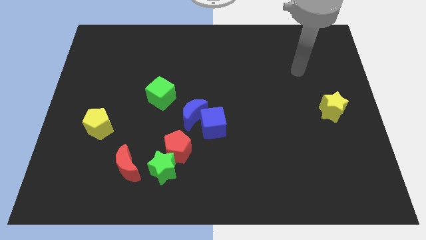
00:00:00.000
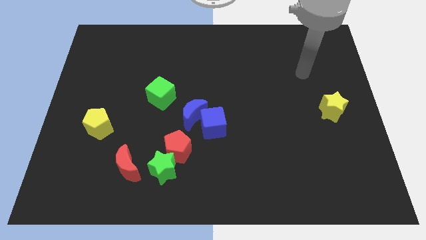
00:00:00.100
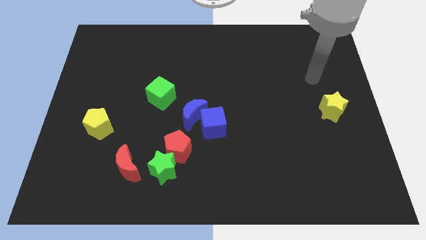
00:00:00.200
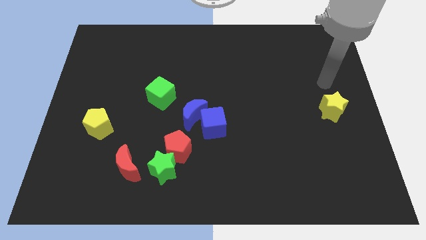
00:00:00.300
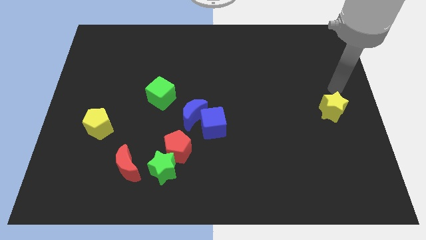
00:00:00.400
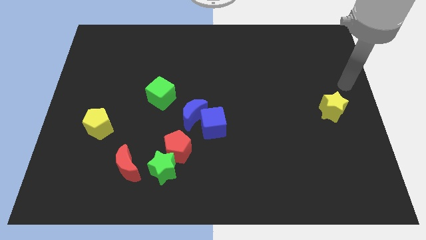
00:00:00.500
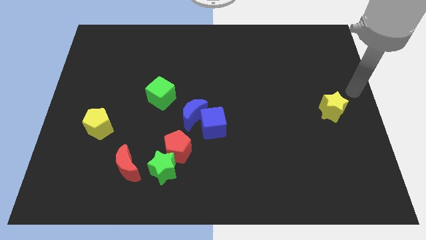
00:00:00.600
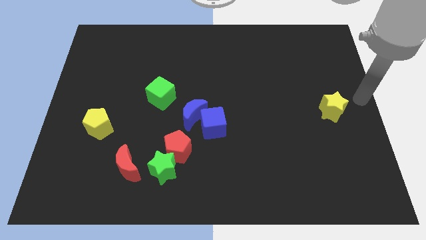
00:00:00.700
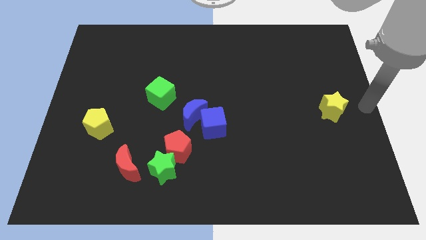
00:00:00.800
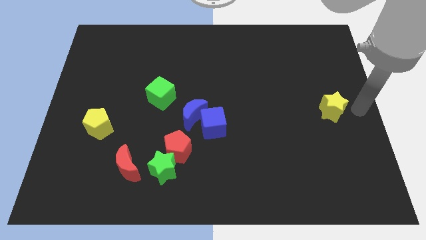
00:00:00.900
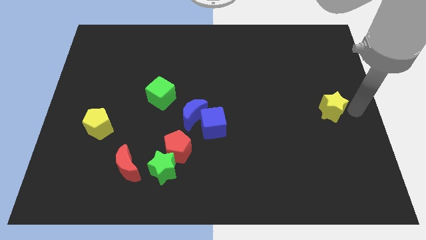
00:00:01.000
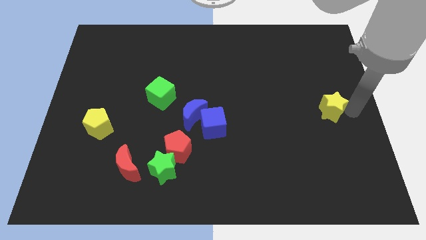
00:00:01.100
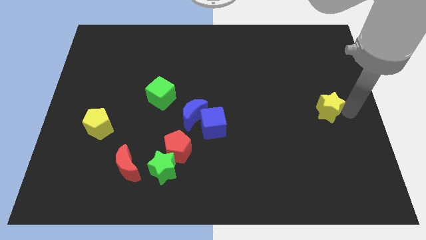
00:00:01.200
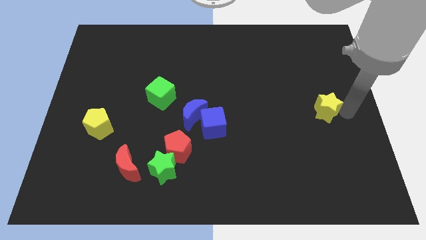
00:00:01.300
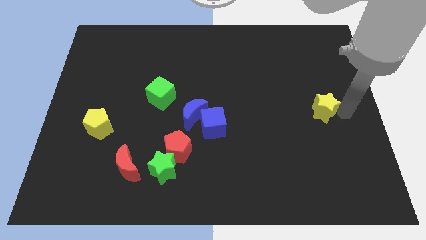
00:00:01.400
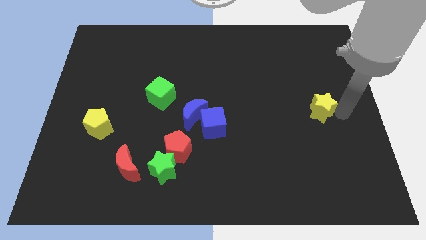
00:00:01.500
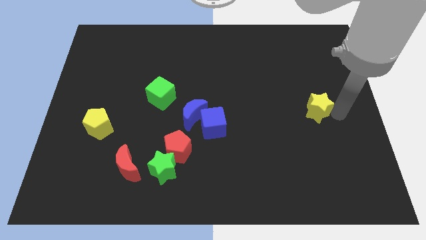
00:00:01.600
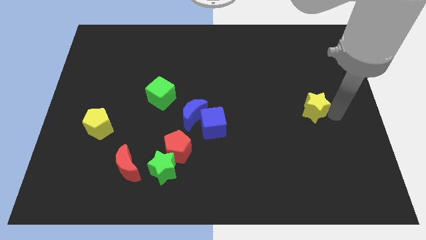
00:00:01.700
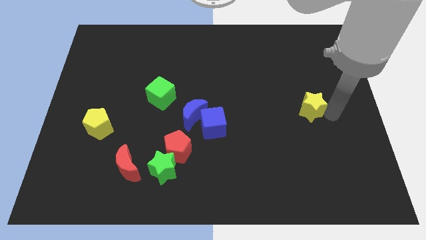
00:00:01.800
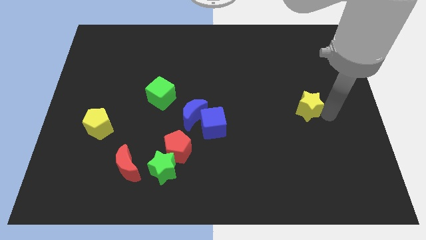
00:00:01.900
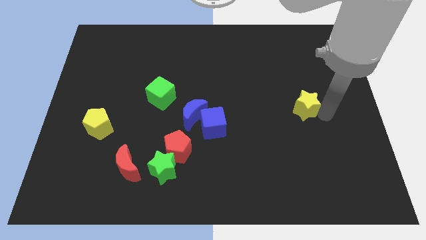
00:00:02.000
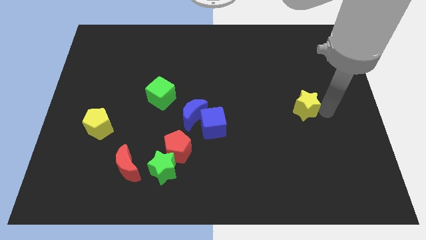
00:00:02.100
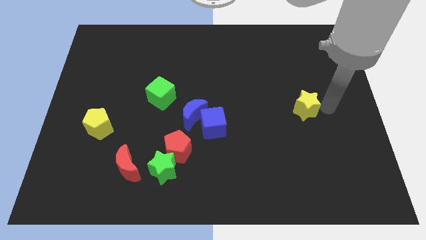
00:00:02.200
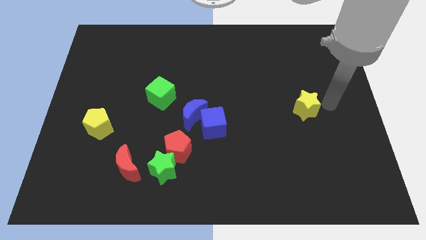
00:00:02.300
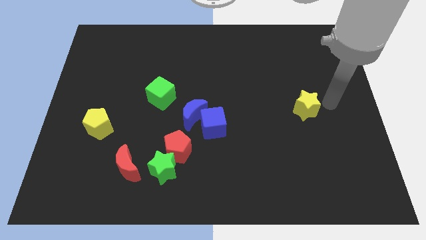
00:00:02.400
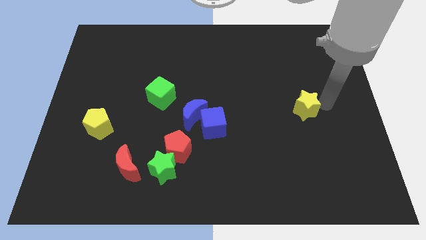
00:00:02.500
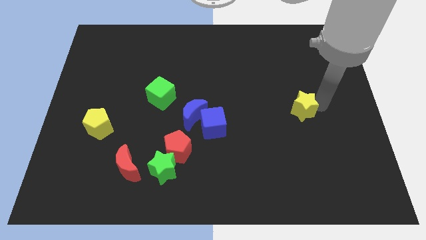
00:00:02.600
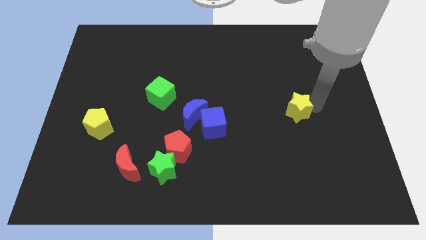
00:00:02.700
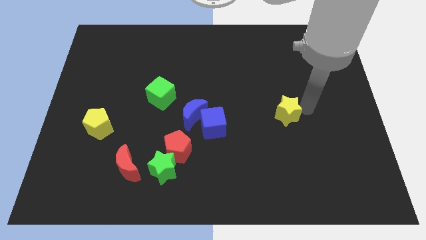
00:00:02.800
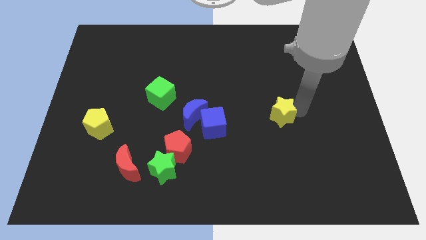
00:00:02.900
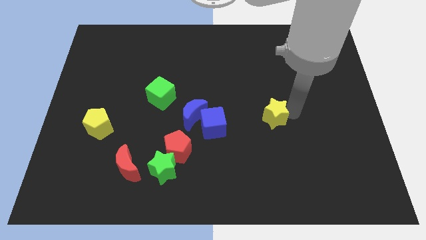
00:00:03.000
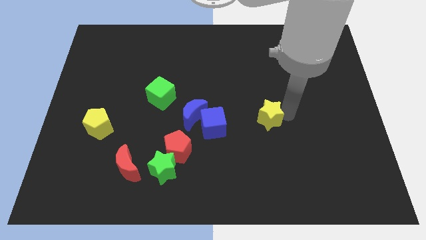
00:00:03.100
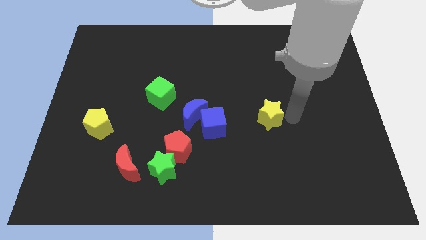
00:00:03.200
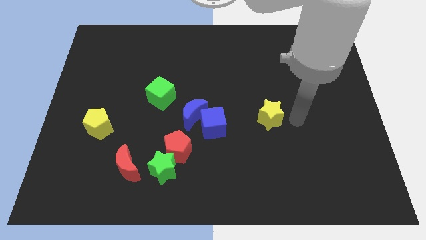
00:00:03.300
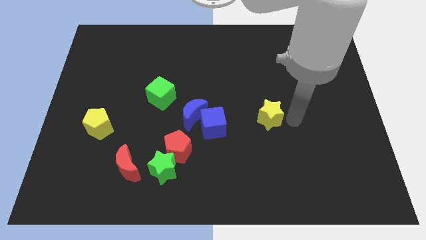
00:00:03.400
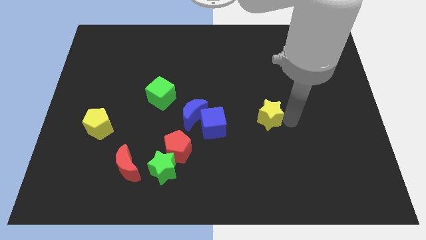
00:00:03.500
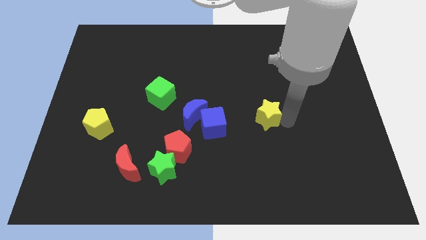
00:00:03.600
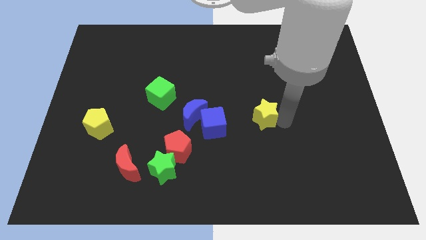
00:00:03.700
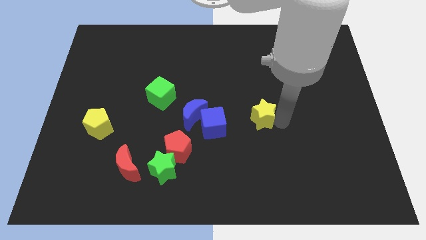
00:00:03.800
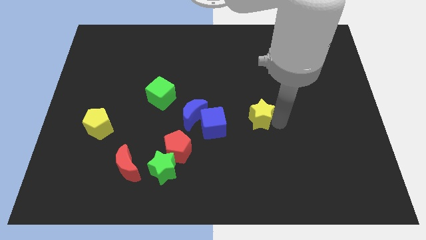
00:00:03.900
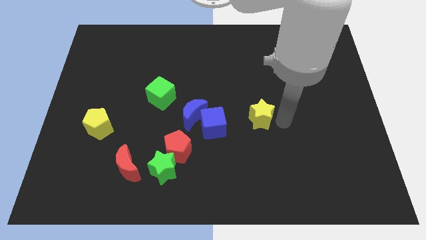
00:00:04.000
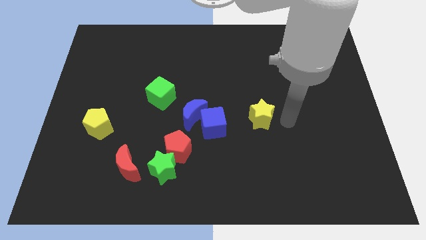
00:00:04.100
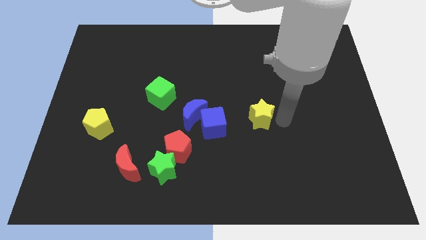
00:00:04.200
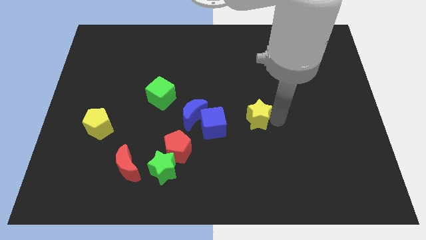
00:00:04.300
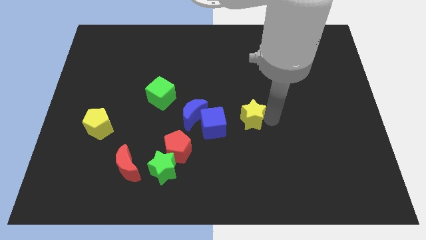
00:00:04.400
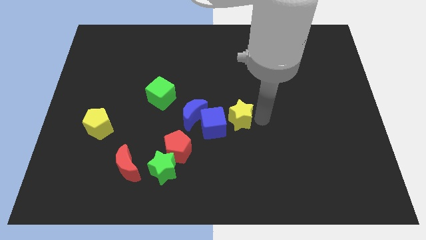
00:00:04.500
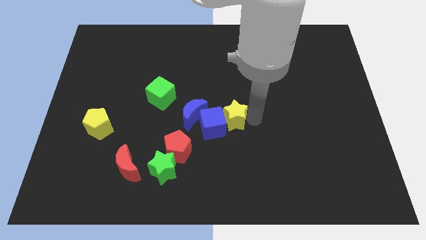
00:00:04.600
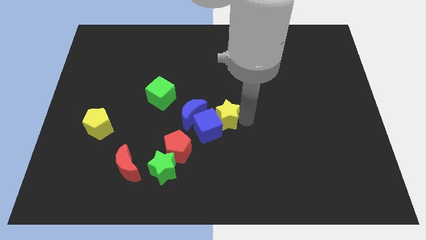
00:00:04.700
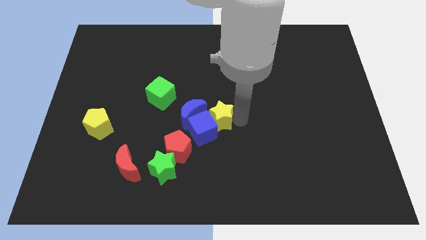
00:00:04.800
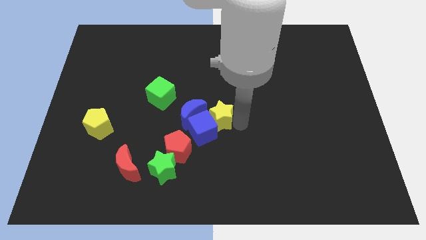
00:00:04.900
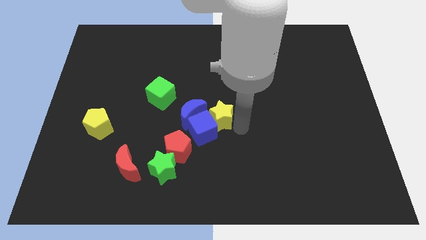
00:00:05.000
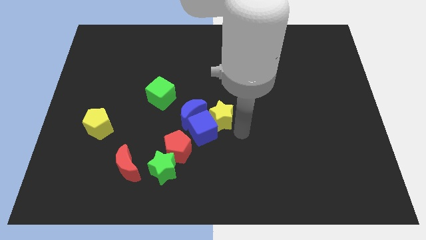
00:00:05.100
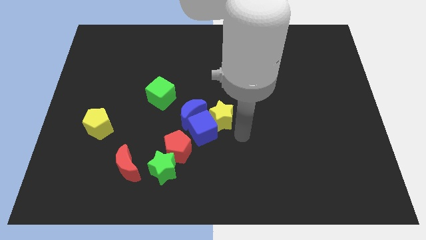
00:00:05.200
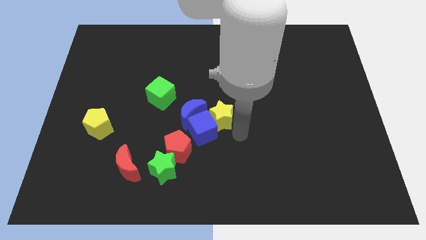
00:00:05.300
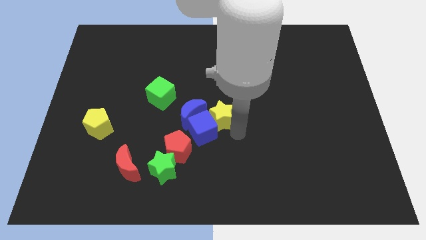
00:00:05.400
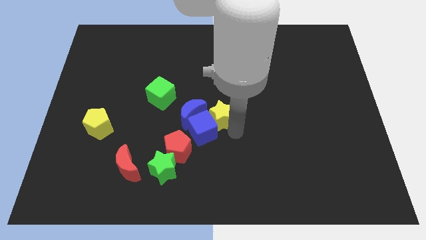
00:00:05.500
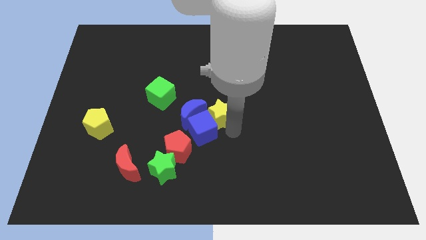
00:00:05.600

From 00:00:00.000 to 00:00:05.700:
push the yellow star close to the blue moon

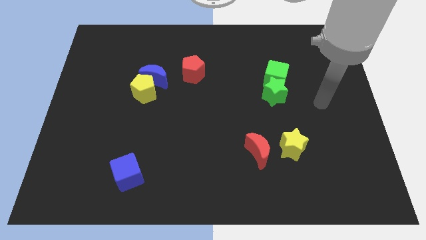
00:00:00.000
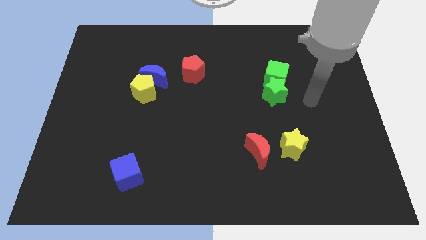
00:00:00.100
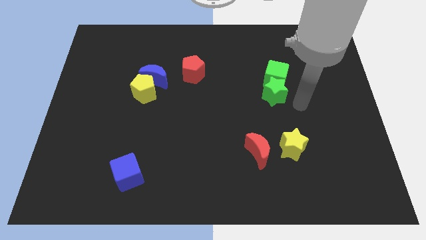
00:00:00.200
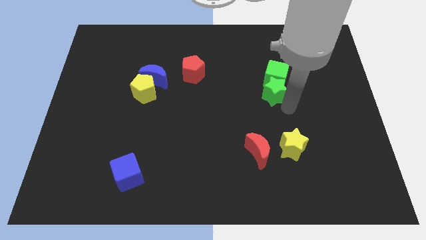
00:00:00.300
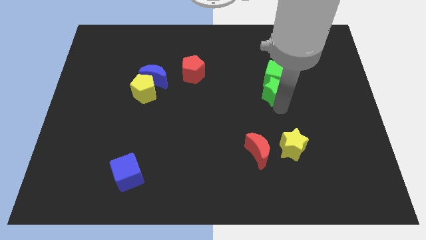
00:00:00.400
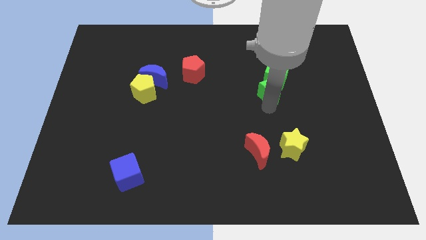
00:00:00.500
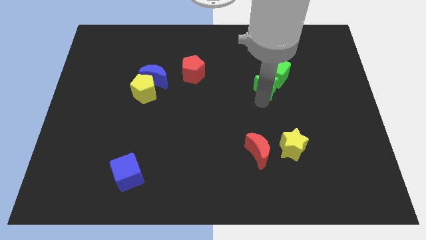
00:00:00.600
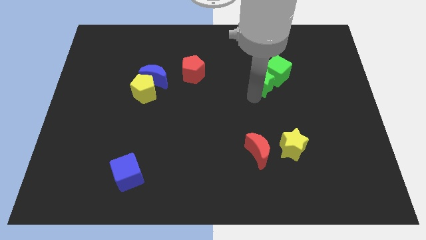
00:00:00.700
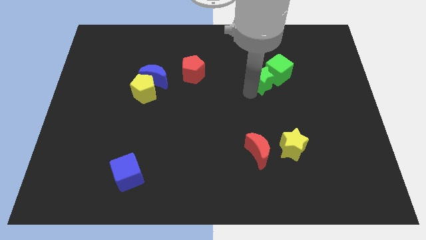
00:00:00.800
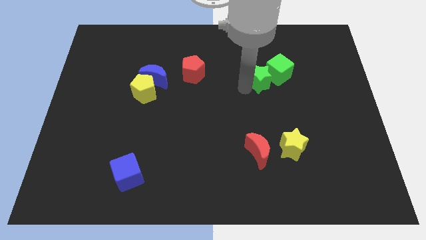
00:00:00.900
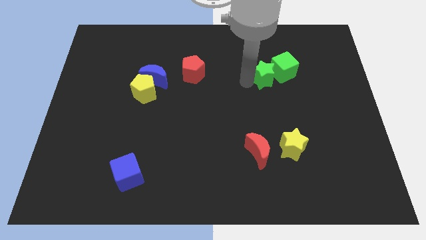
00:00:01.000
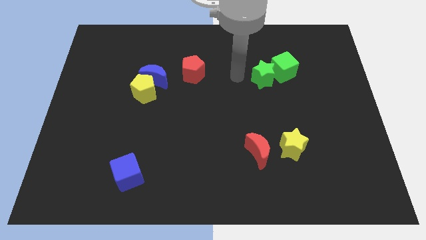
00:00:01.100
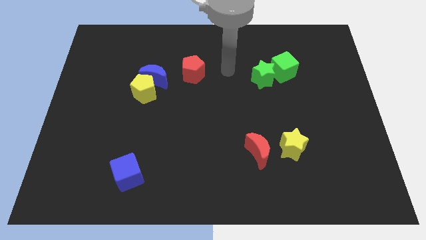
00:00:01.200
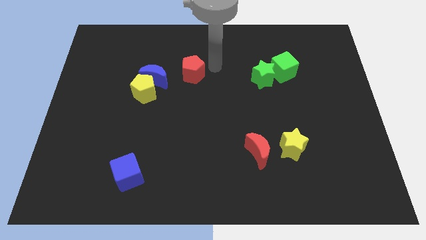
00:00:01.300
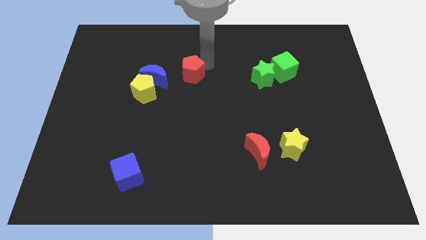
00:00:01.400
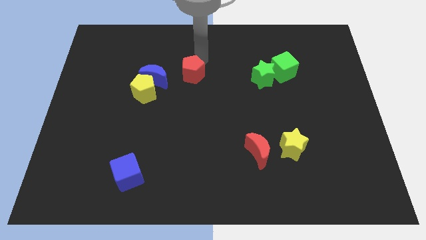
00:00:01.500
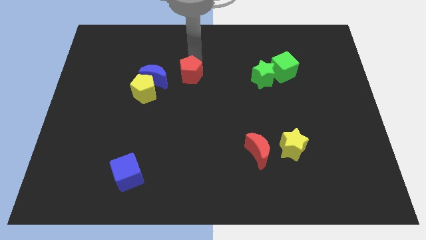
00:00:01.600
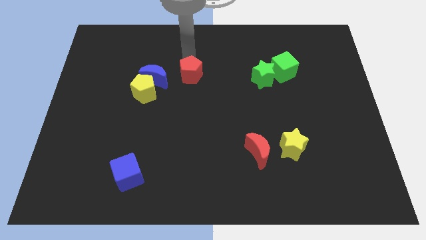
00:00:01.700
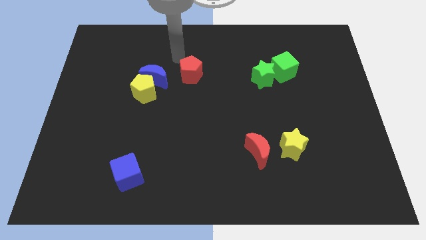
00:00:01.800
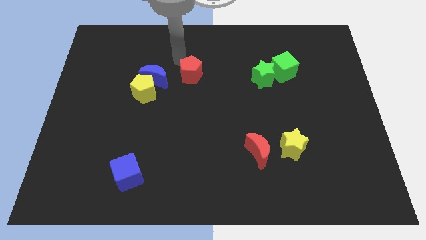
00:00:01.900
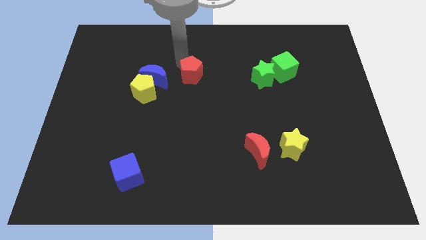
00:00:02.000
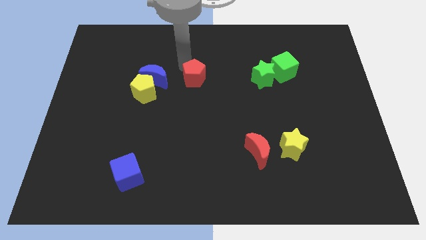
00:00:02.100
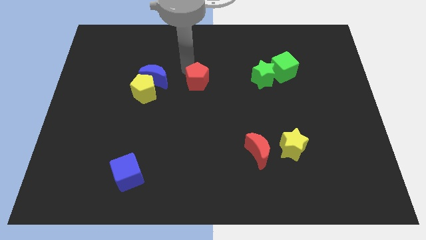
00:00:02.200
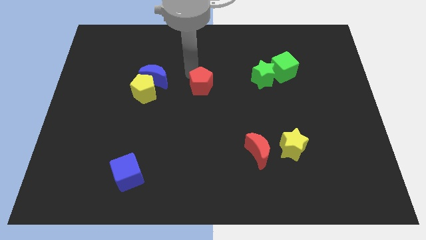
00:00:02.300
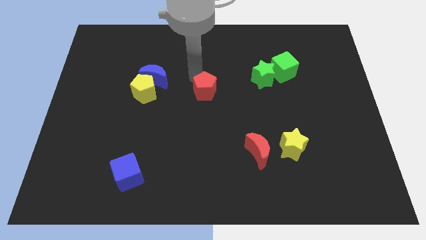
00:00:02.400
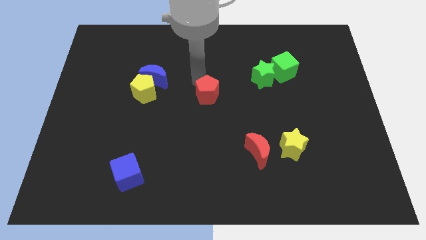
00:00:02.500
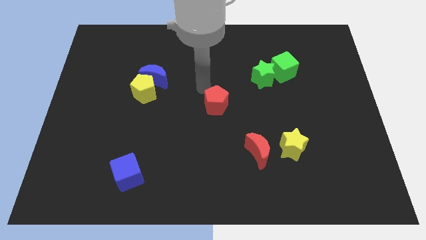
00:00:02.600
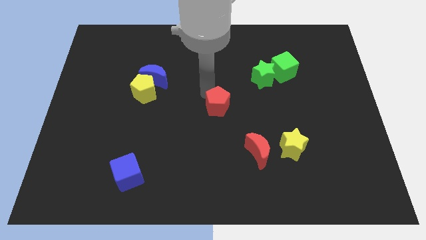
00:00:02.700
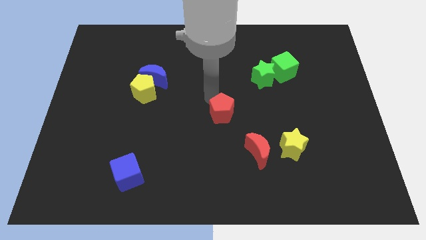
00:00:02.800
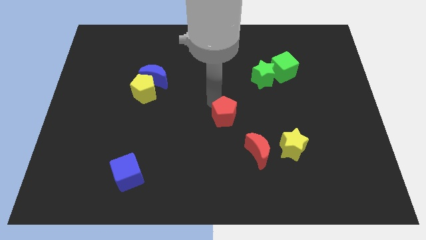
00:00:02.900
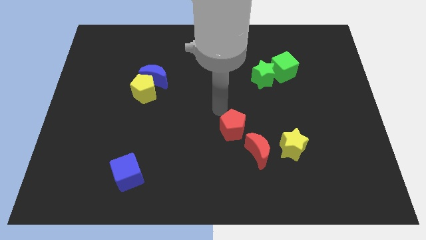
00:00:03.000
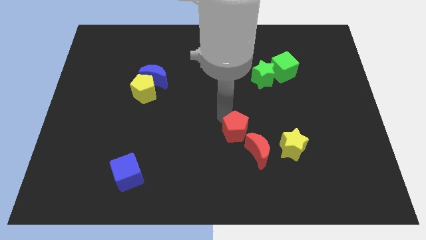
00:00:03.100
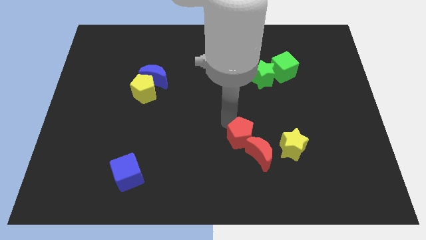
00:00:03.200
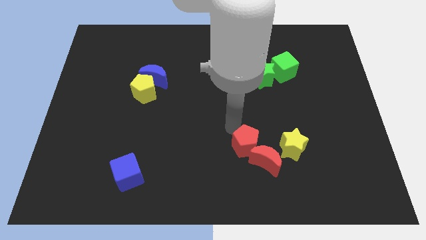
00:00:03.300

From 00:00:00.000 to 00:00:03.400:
slide the red pentagon towards the red moon
